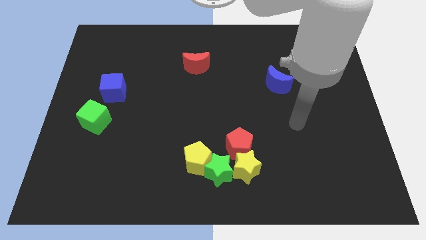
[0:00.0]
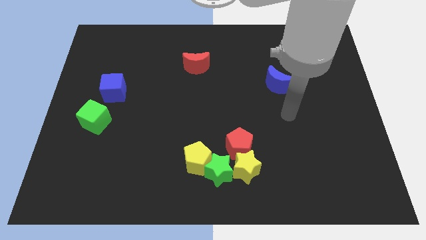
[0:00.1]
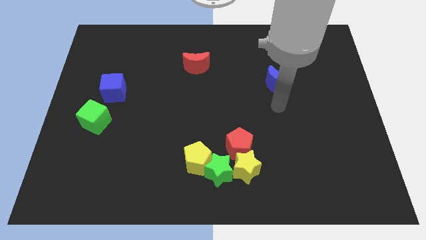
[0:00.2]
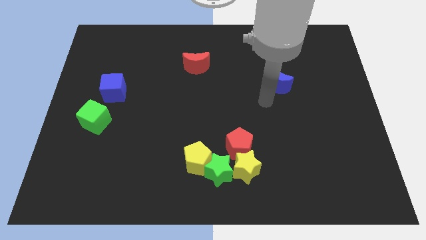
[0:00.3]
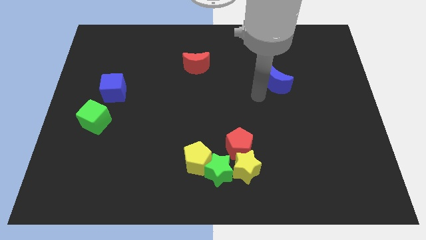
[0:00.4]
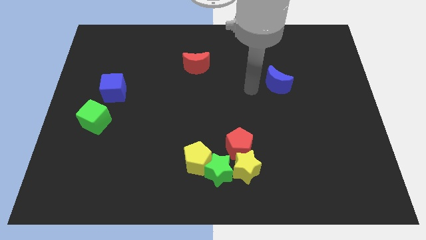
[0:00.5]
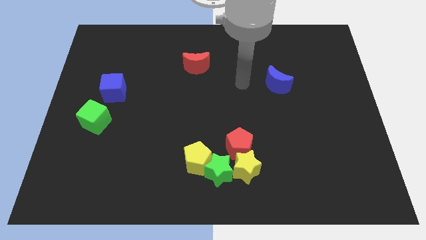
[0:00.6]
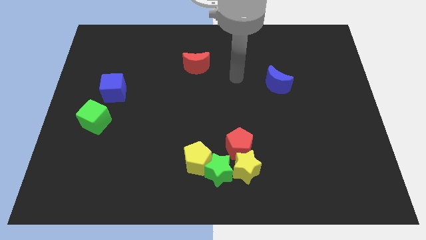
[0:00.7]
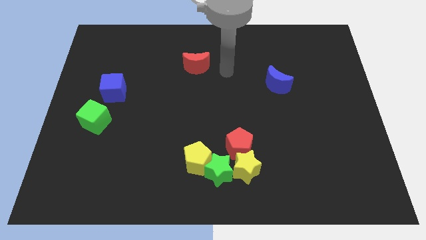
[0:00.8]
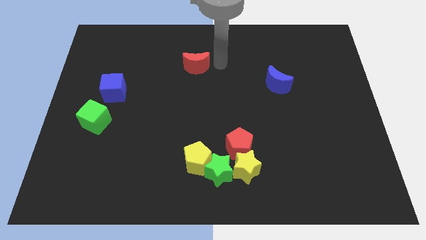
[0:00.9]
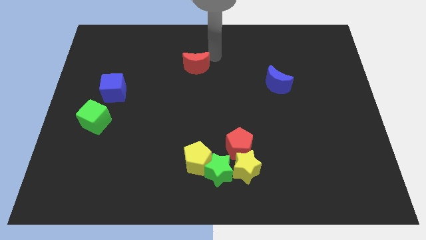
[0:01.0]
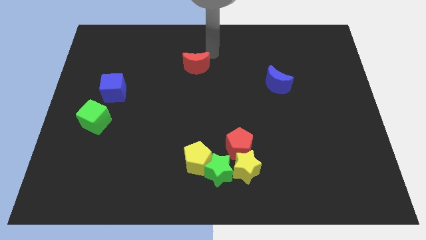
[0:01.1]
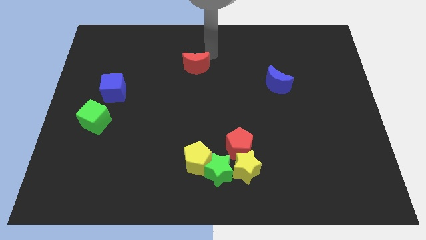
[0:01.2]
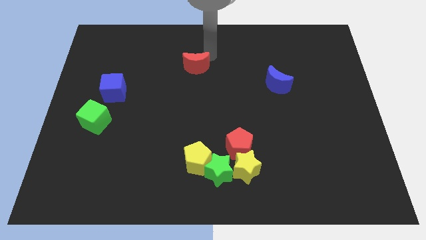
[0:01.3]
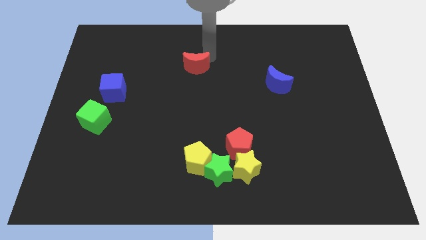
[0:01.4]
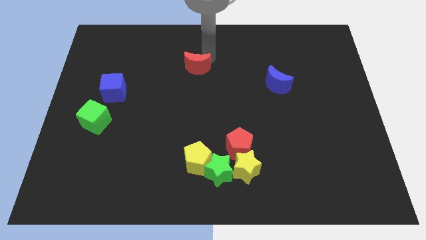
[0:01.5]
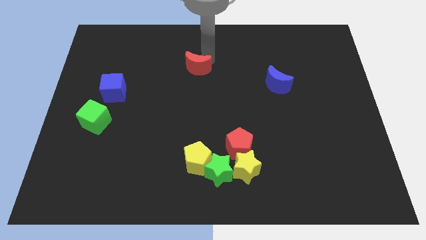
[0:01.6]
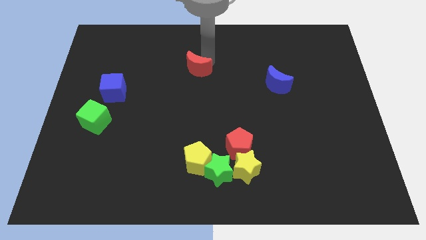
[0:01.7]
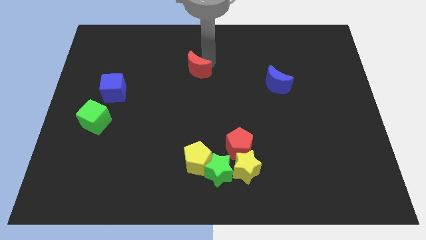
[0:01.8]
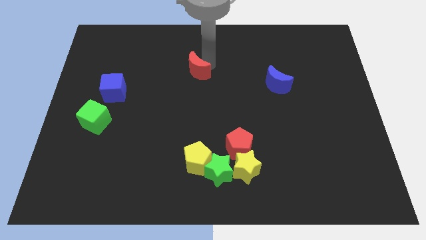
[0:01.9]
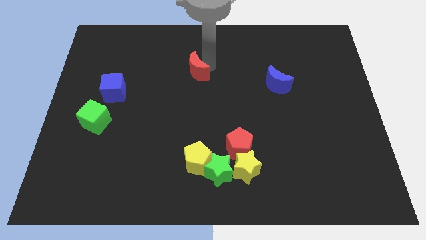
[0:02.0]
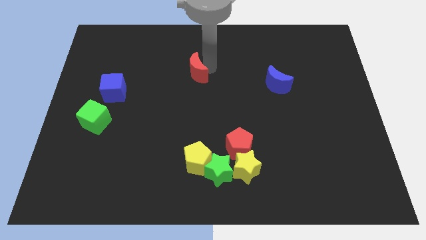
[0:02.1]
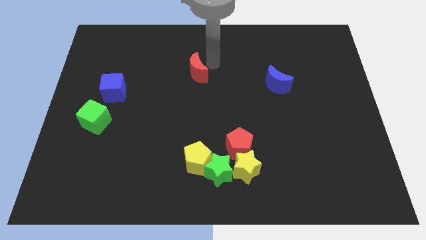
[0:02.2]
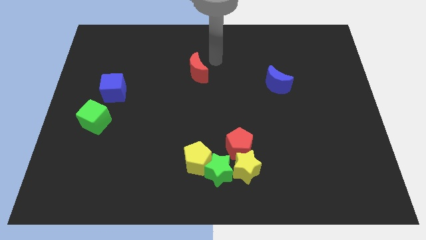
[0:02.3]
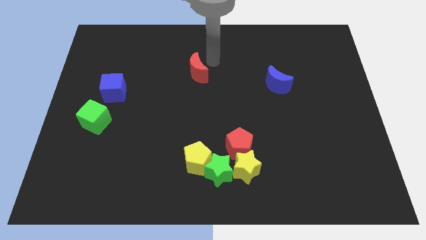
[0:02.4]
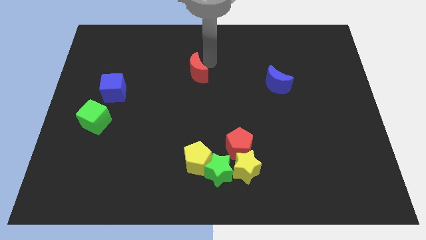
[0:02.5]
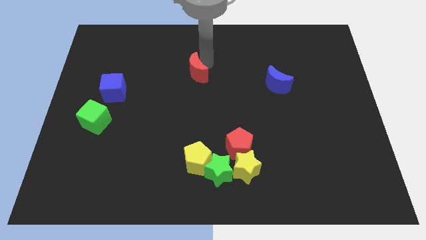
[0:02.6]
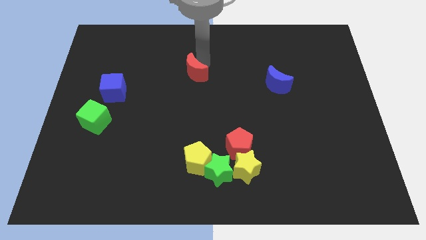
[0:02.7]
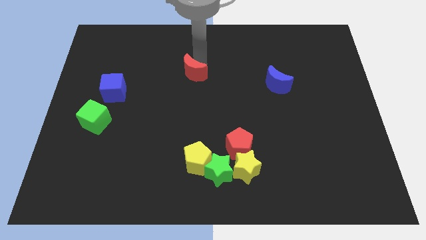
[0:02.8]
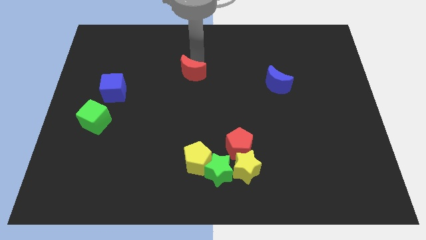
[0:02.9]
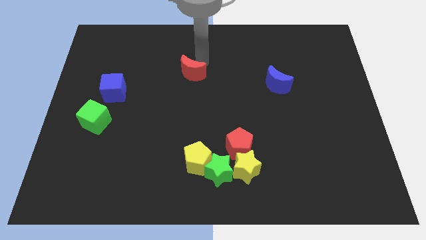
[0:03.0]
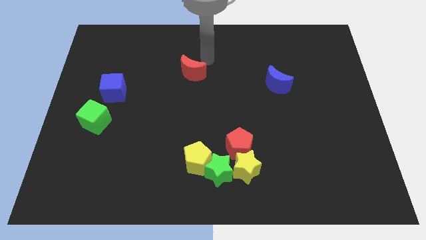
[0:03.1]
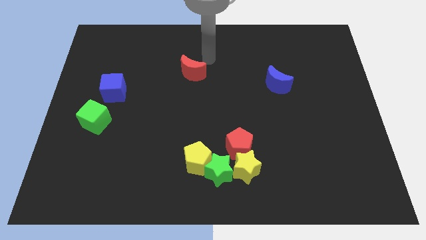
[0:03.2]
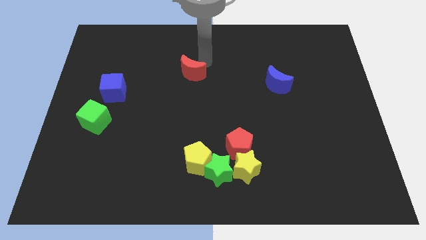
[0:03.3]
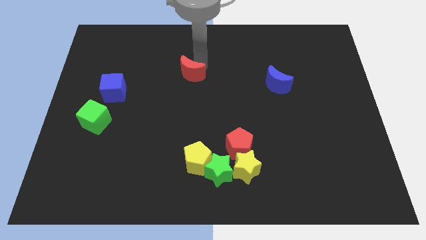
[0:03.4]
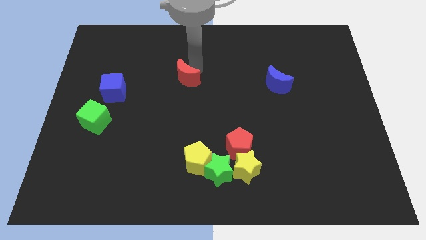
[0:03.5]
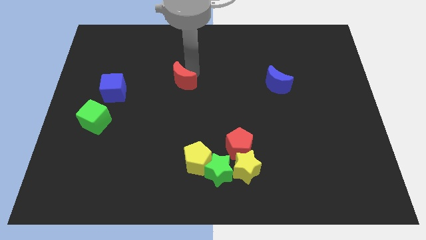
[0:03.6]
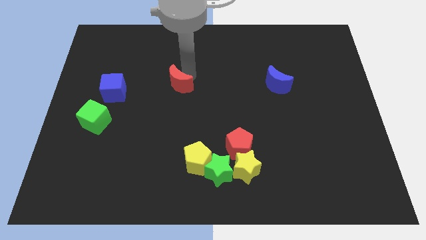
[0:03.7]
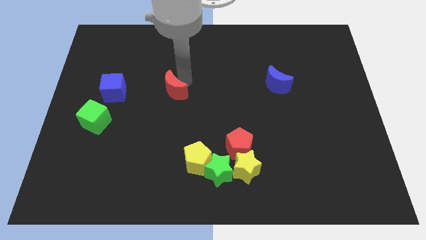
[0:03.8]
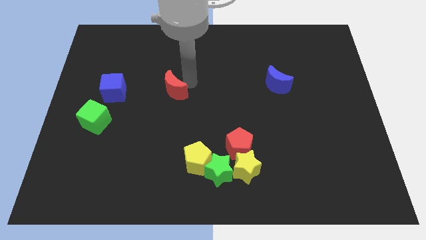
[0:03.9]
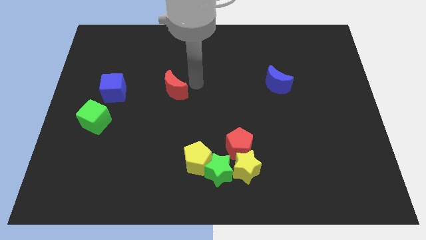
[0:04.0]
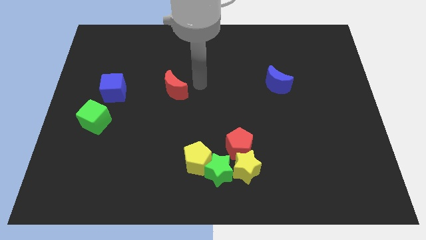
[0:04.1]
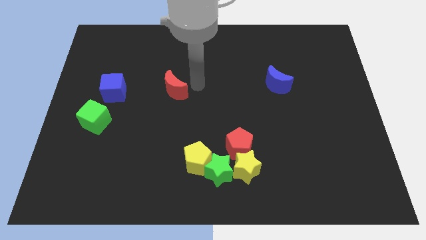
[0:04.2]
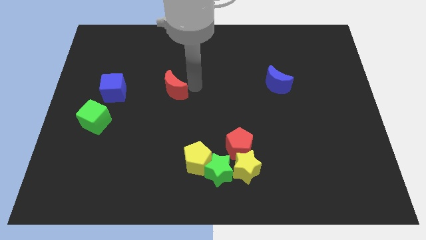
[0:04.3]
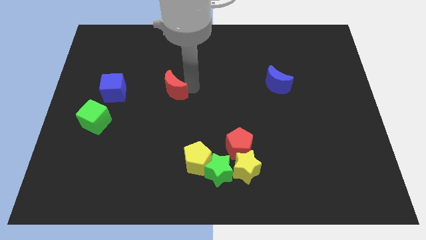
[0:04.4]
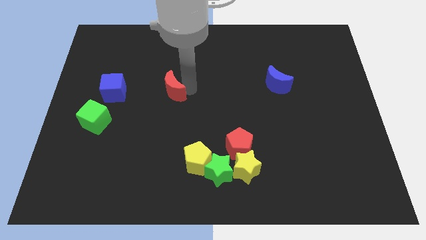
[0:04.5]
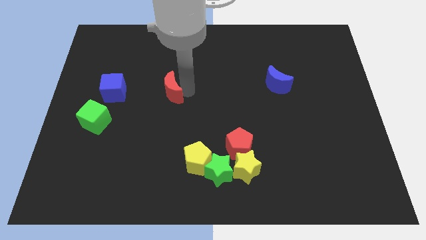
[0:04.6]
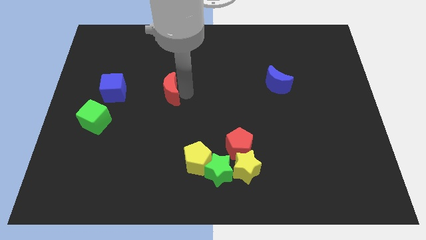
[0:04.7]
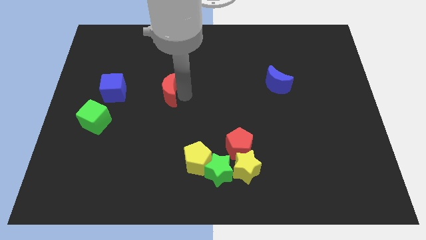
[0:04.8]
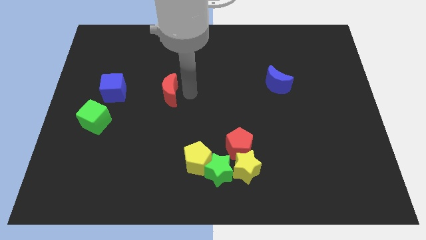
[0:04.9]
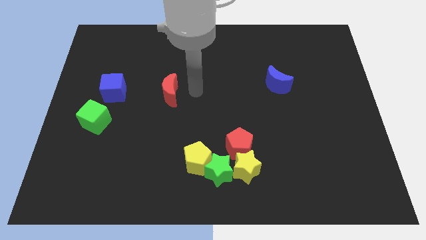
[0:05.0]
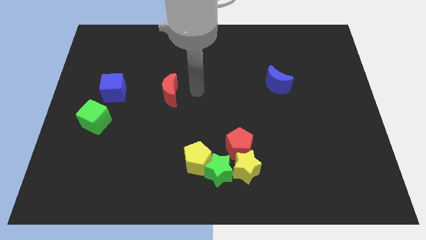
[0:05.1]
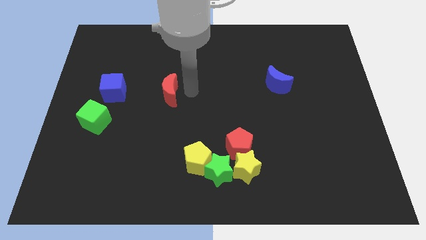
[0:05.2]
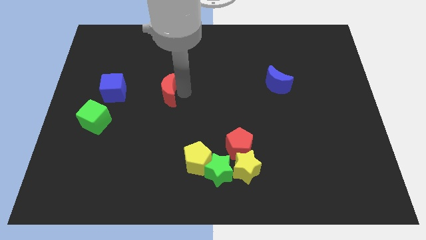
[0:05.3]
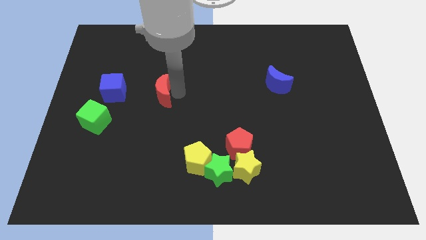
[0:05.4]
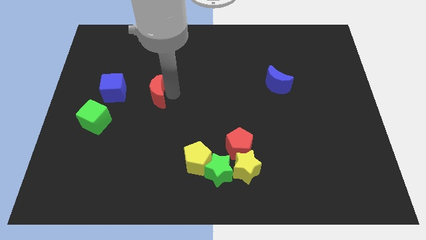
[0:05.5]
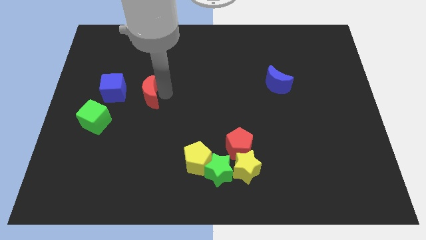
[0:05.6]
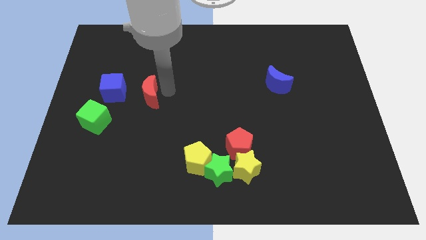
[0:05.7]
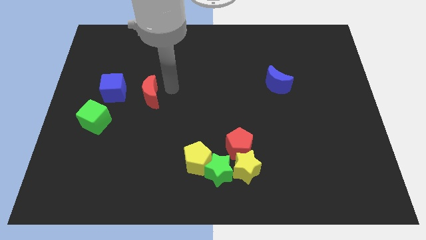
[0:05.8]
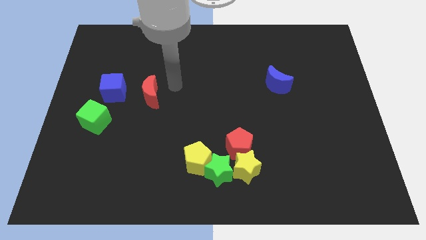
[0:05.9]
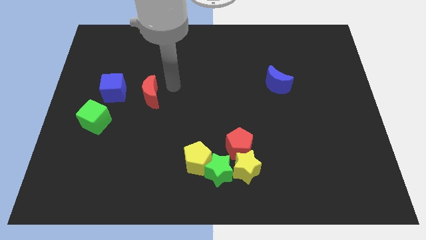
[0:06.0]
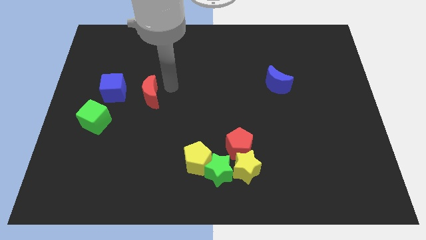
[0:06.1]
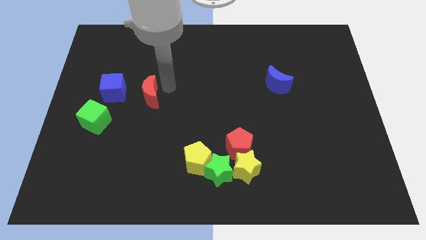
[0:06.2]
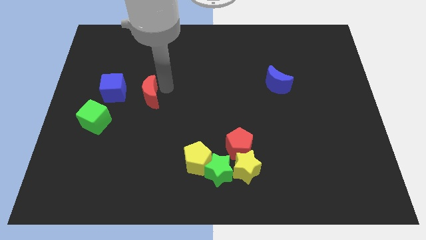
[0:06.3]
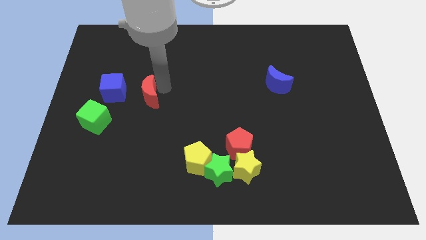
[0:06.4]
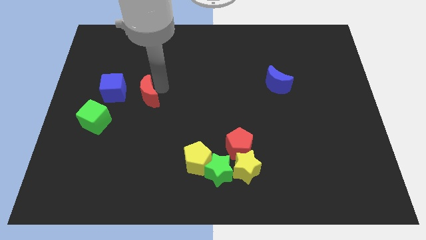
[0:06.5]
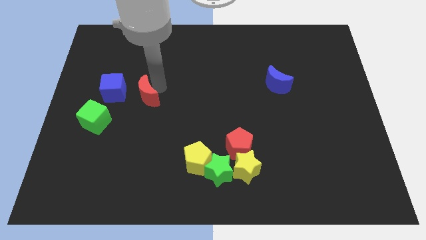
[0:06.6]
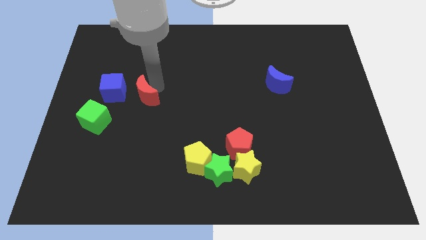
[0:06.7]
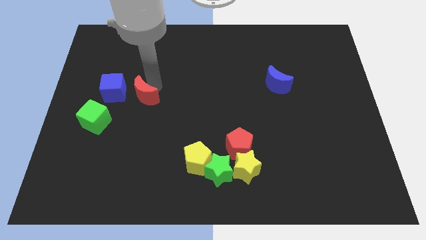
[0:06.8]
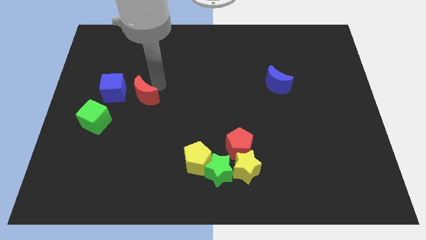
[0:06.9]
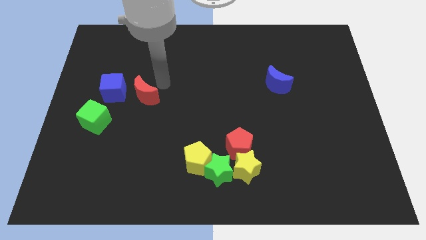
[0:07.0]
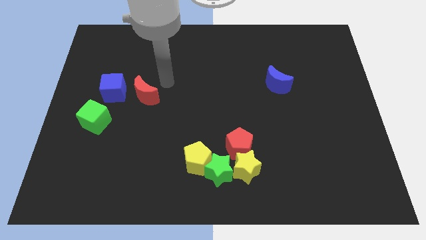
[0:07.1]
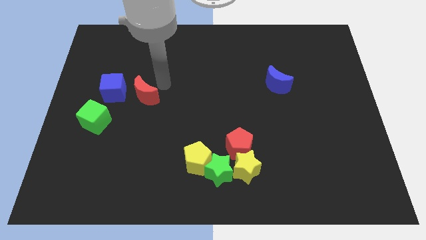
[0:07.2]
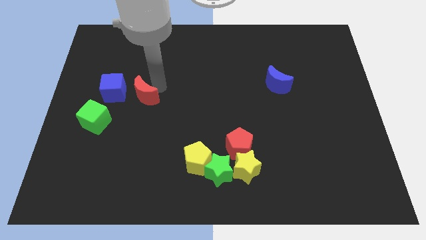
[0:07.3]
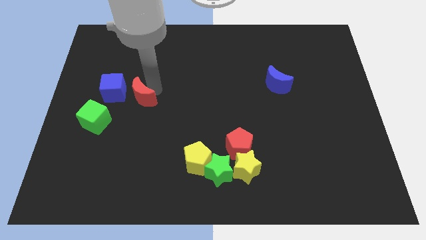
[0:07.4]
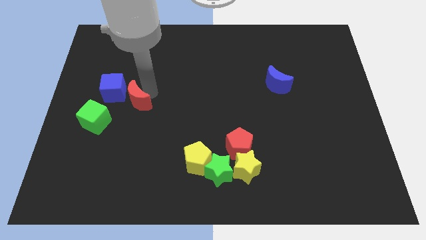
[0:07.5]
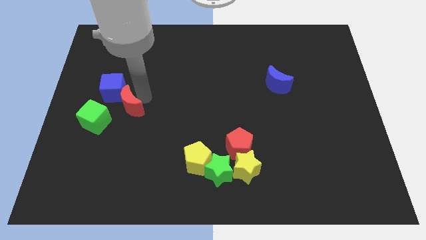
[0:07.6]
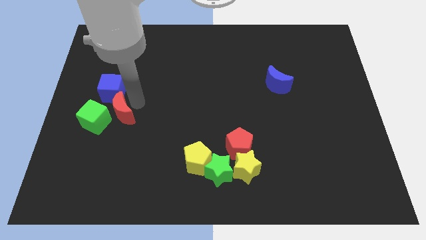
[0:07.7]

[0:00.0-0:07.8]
move the red moon to the green cube

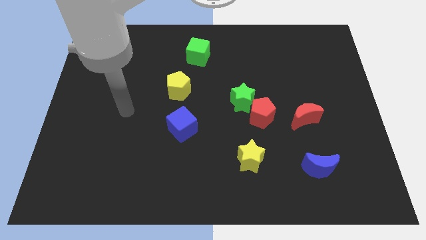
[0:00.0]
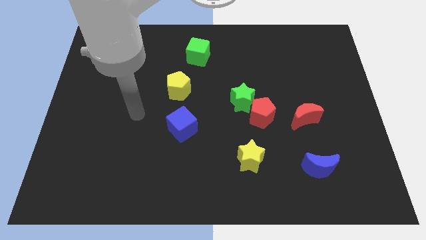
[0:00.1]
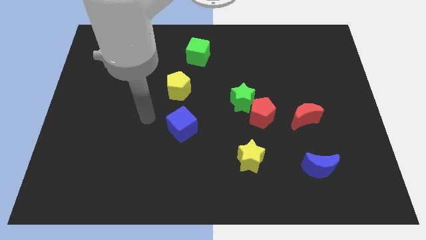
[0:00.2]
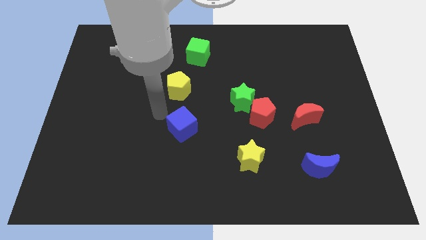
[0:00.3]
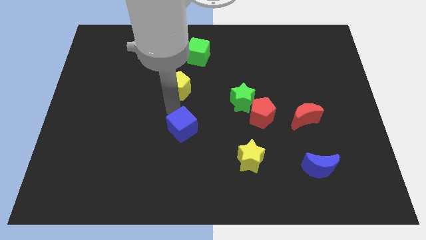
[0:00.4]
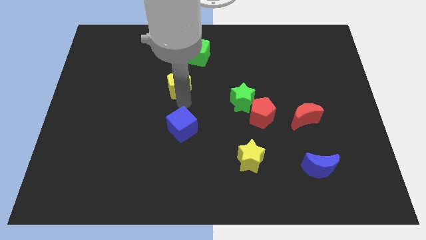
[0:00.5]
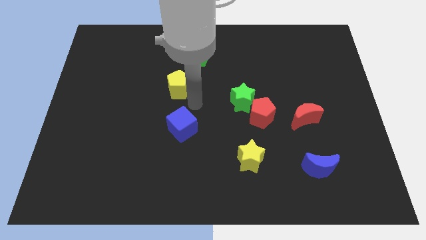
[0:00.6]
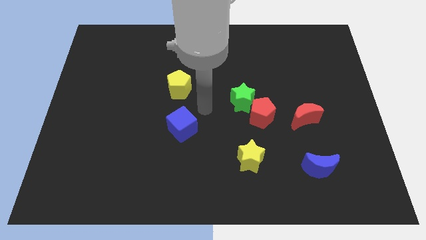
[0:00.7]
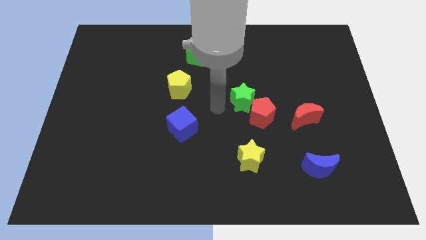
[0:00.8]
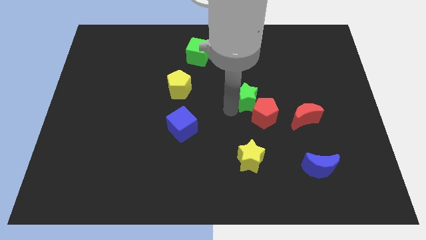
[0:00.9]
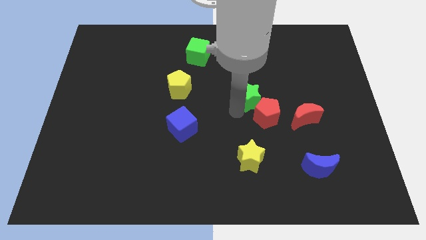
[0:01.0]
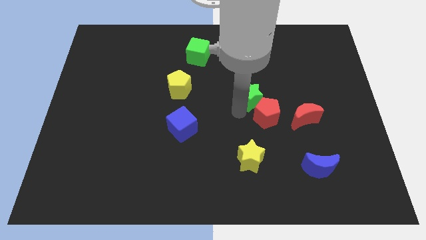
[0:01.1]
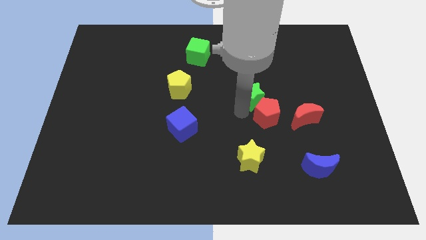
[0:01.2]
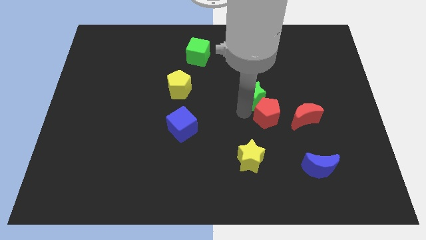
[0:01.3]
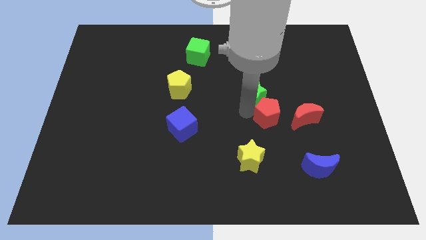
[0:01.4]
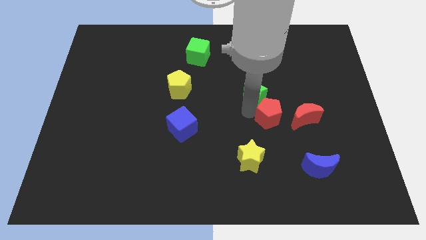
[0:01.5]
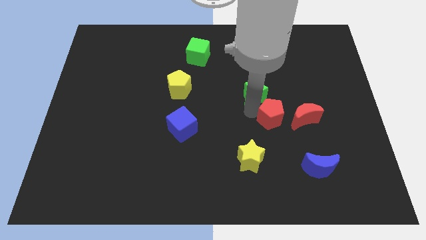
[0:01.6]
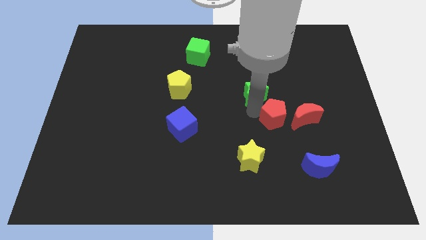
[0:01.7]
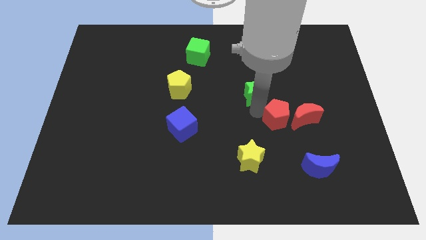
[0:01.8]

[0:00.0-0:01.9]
put the red pentagon close to the red moon
